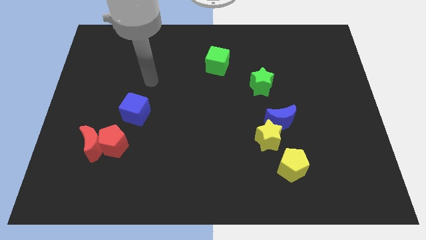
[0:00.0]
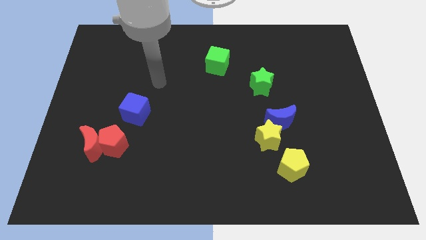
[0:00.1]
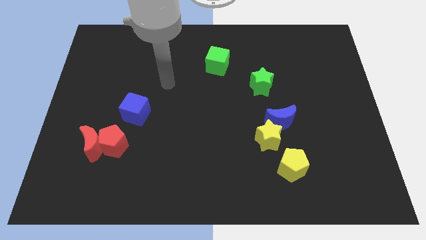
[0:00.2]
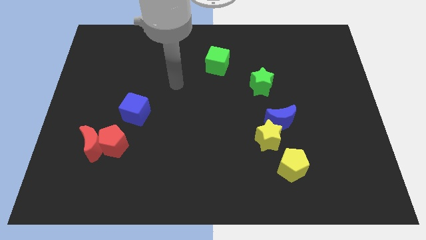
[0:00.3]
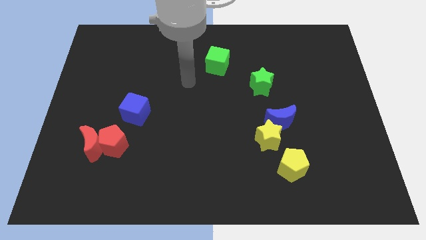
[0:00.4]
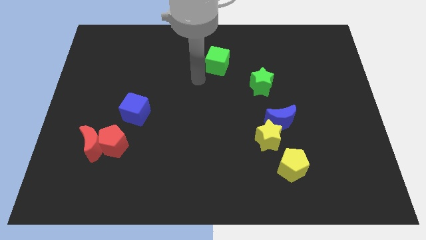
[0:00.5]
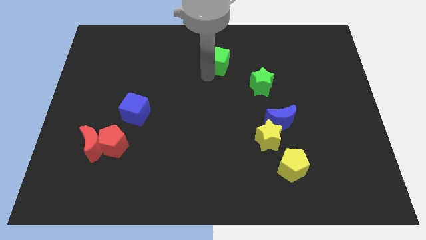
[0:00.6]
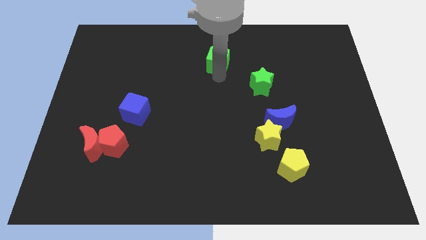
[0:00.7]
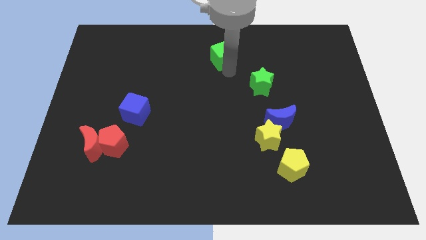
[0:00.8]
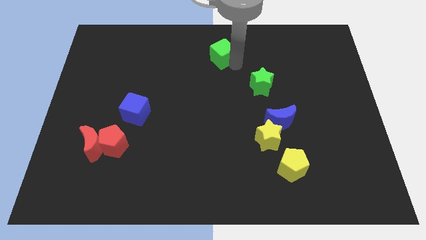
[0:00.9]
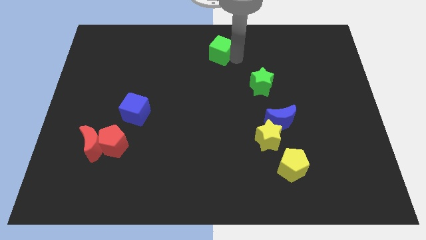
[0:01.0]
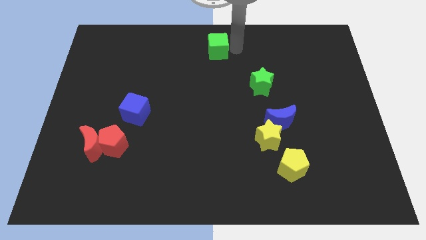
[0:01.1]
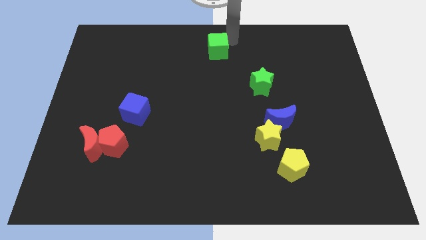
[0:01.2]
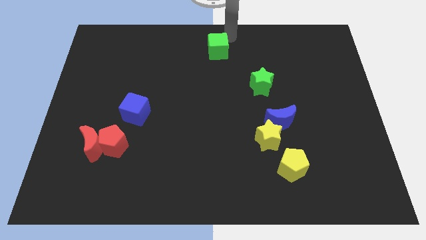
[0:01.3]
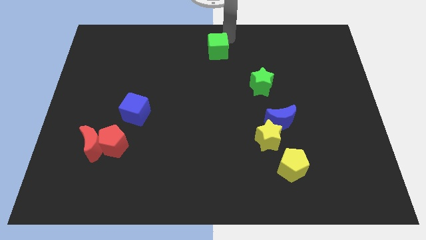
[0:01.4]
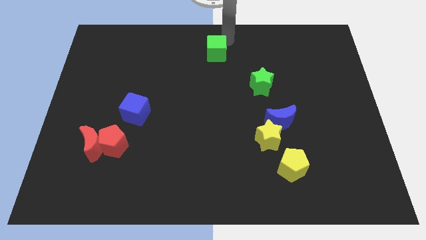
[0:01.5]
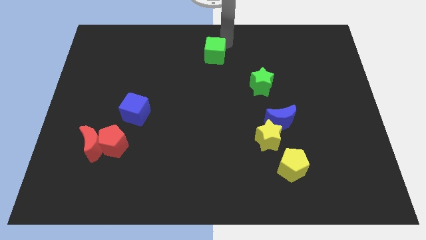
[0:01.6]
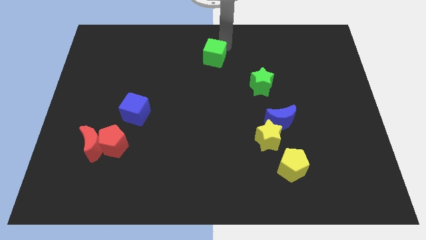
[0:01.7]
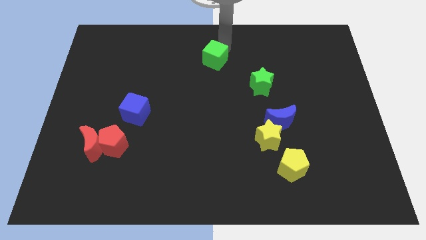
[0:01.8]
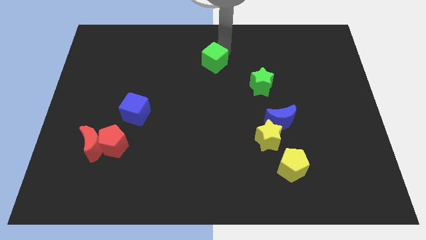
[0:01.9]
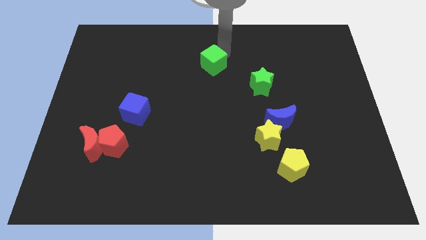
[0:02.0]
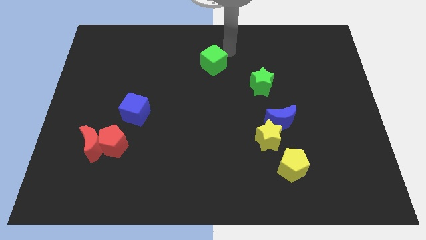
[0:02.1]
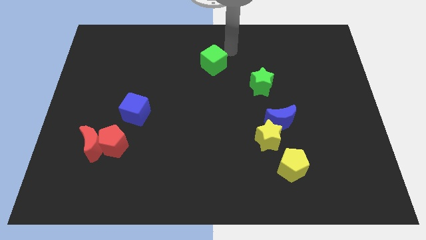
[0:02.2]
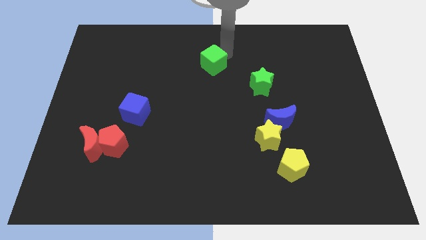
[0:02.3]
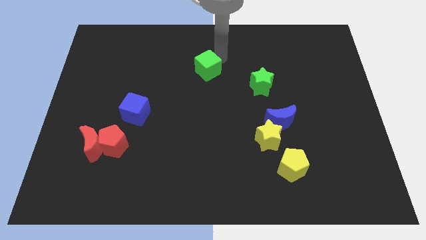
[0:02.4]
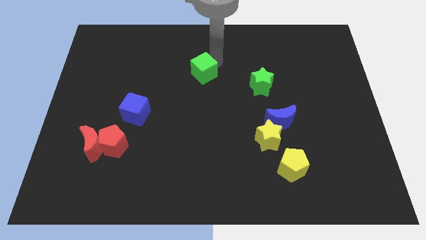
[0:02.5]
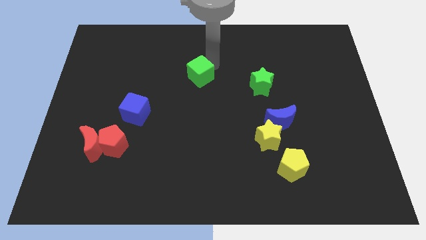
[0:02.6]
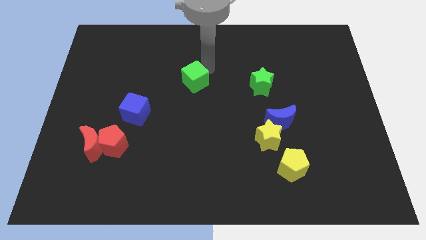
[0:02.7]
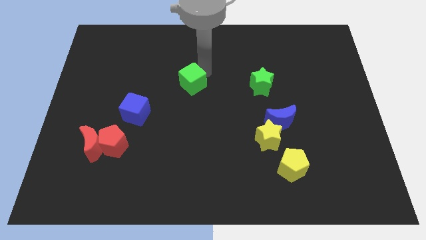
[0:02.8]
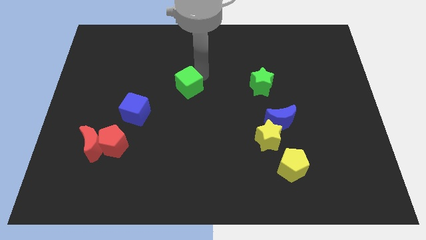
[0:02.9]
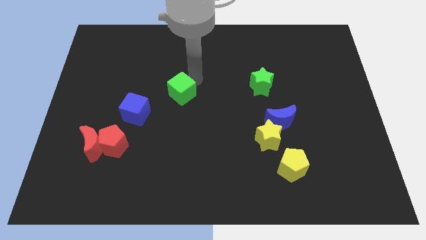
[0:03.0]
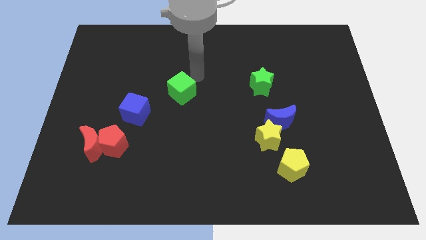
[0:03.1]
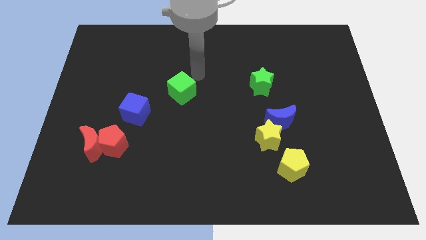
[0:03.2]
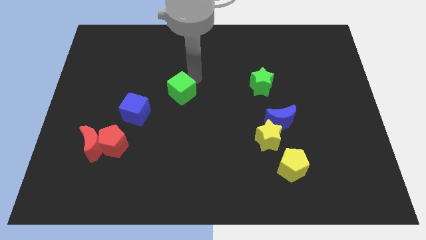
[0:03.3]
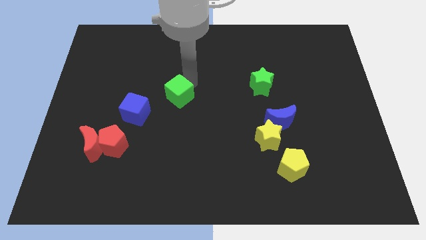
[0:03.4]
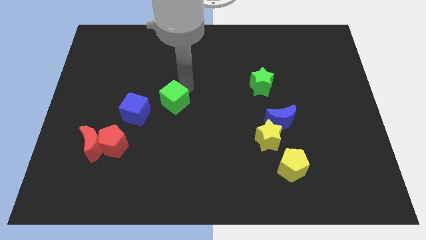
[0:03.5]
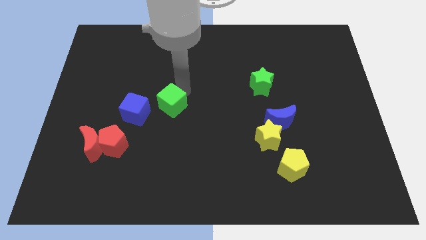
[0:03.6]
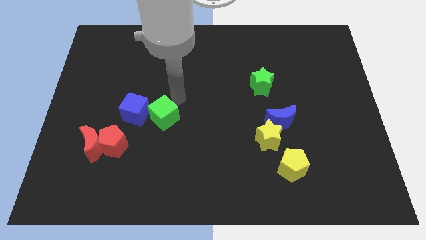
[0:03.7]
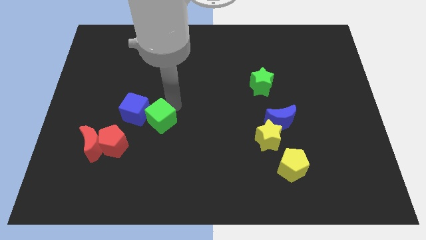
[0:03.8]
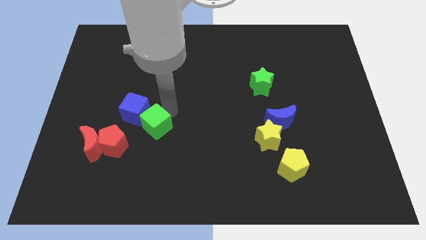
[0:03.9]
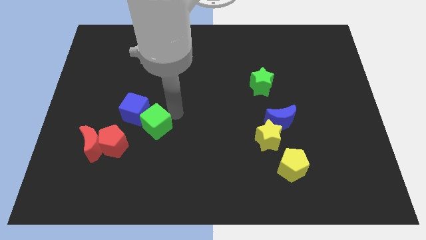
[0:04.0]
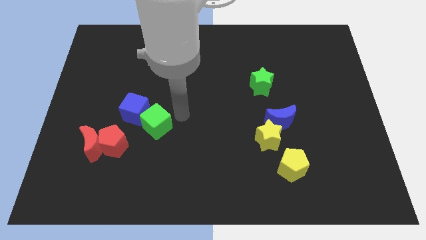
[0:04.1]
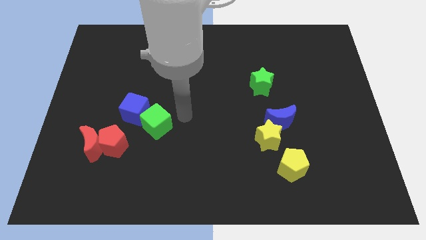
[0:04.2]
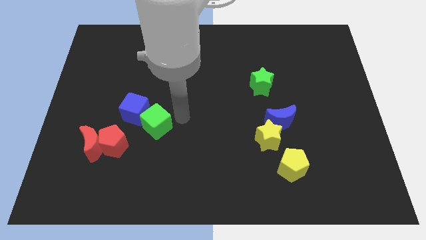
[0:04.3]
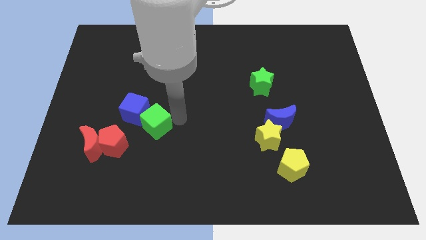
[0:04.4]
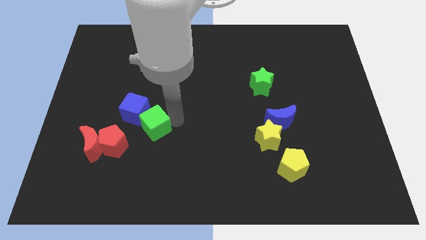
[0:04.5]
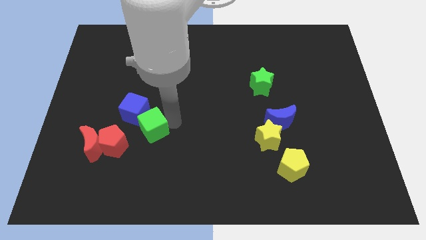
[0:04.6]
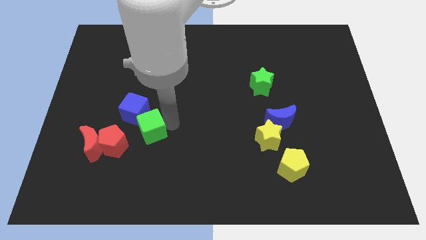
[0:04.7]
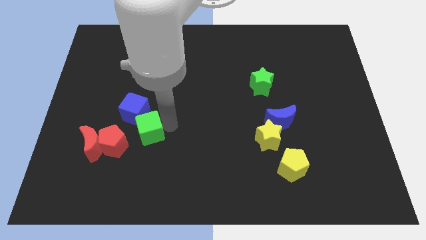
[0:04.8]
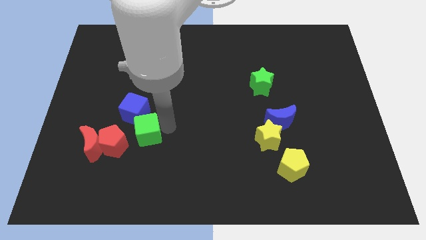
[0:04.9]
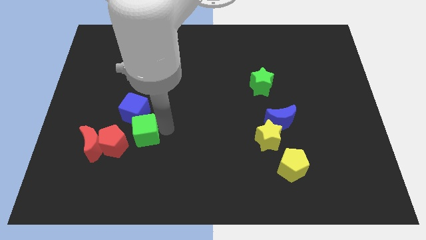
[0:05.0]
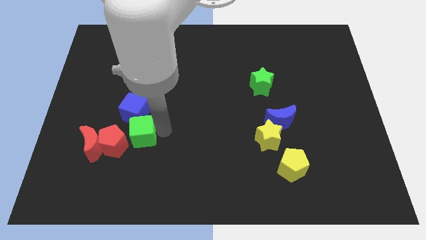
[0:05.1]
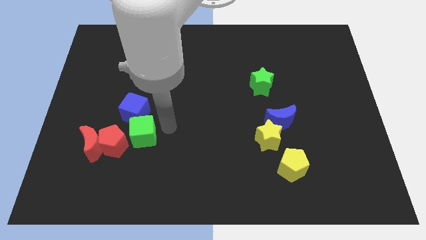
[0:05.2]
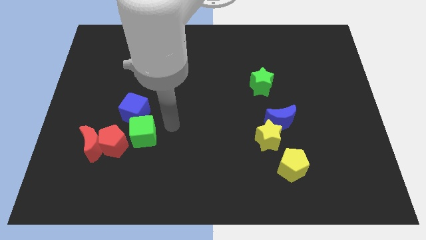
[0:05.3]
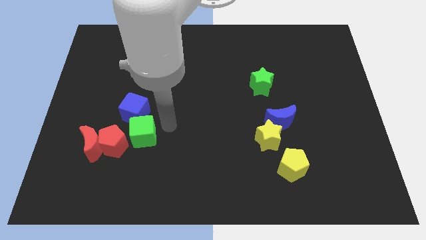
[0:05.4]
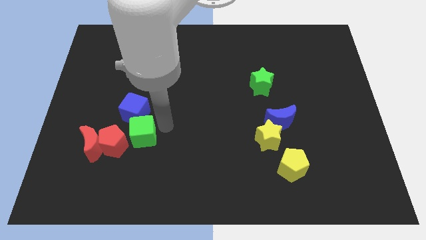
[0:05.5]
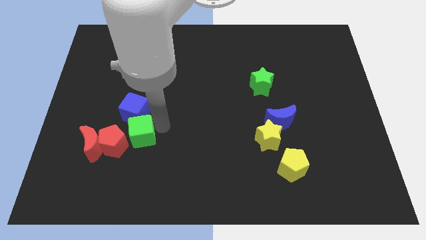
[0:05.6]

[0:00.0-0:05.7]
push the green cube to the red pentagon

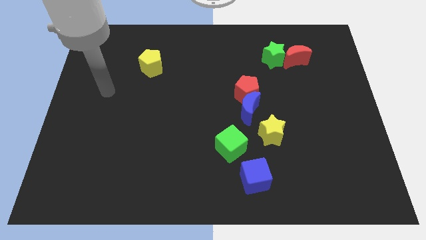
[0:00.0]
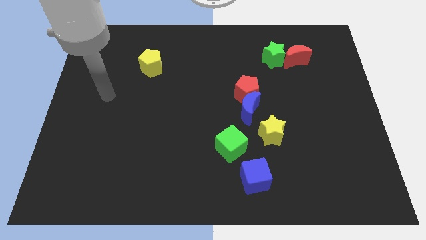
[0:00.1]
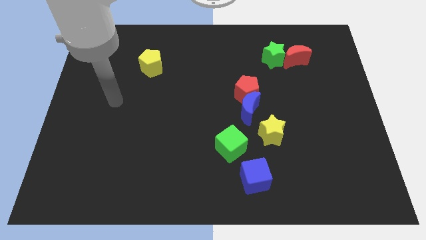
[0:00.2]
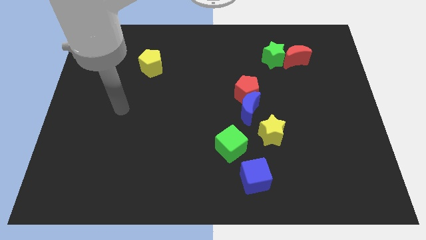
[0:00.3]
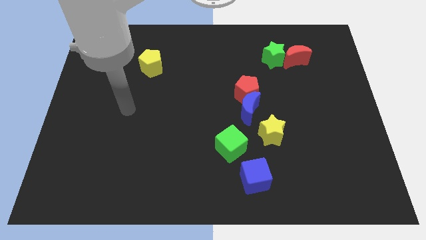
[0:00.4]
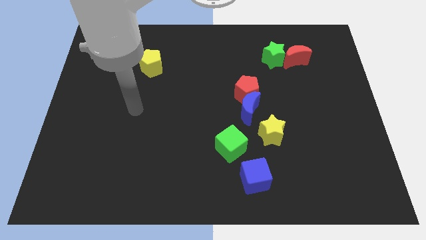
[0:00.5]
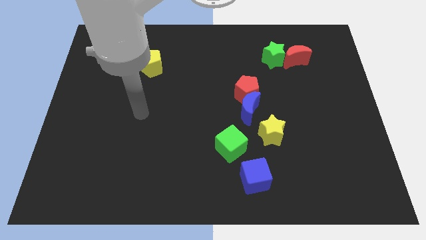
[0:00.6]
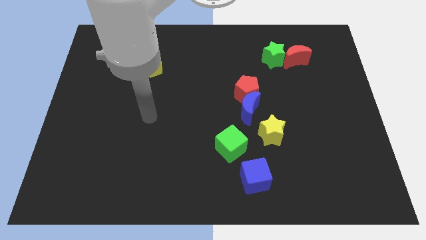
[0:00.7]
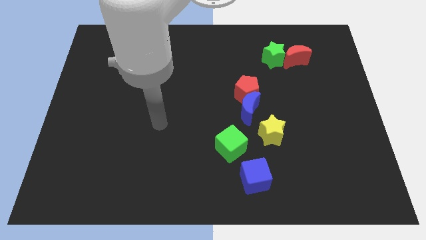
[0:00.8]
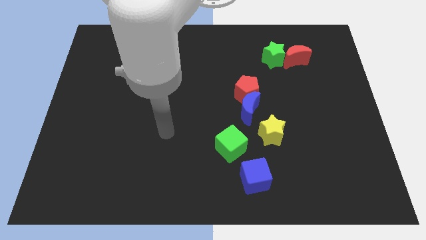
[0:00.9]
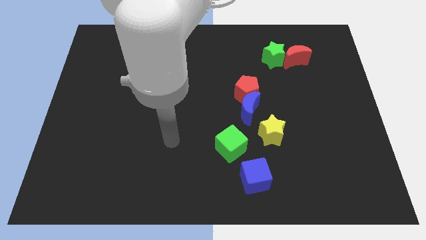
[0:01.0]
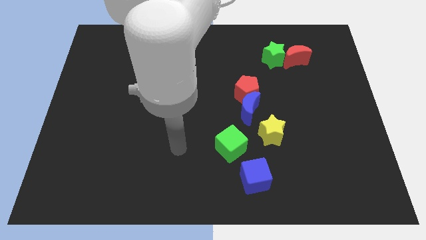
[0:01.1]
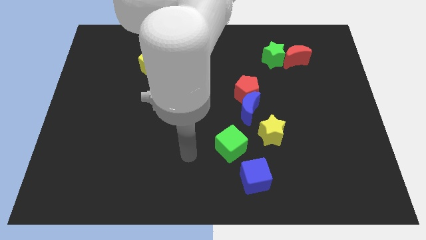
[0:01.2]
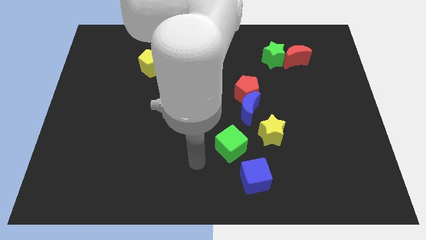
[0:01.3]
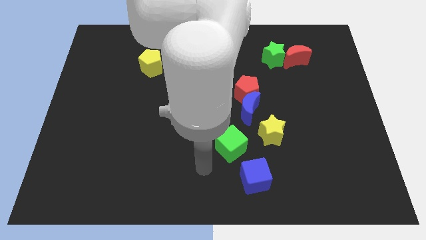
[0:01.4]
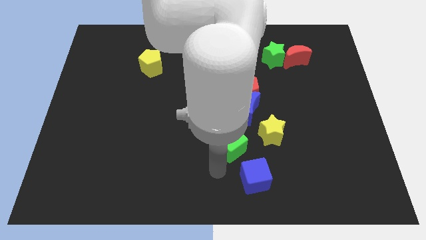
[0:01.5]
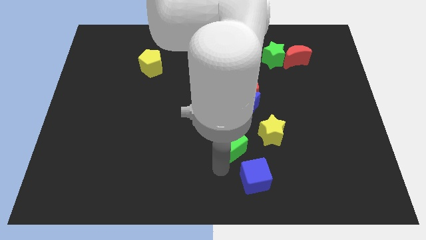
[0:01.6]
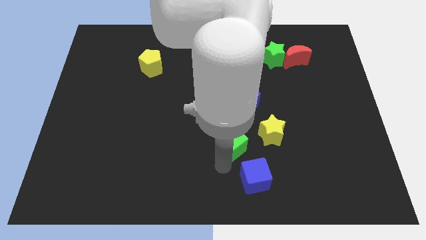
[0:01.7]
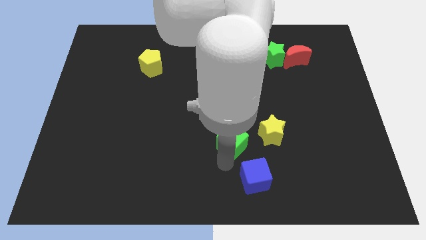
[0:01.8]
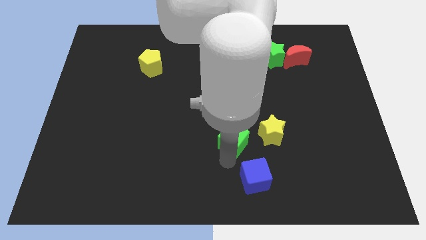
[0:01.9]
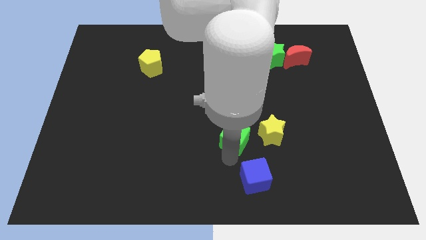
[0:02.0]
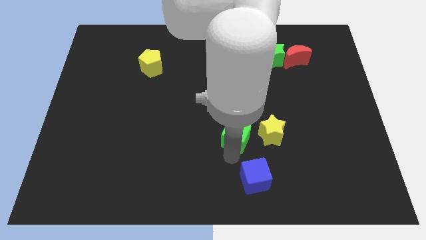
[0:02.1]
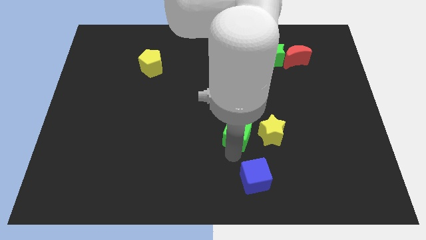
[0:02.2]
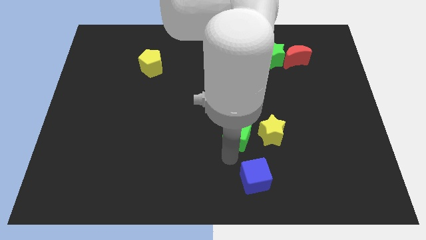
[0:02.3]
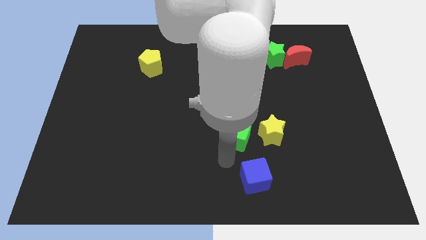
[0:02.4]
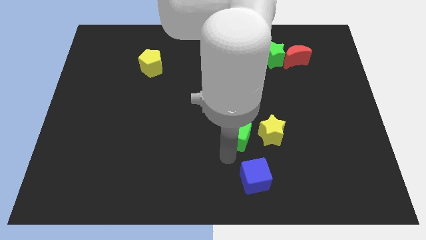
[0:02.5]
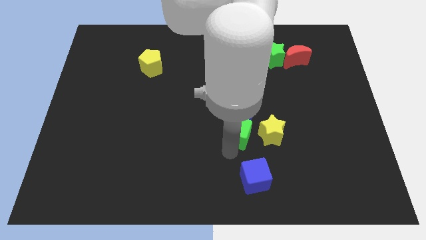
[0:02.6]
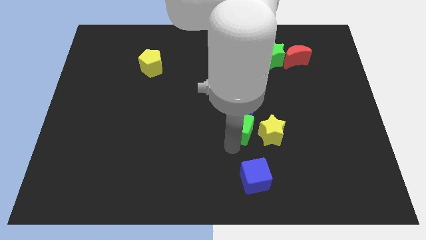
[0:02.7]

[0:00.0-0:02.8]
move the green cube to the blue moon
